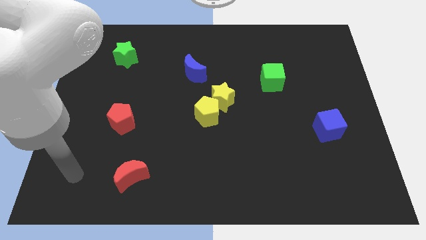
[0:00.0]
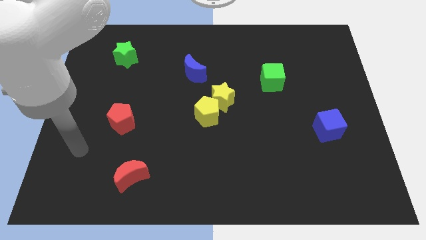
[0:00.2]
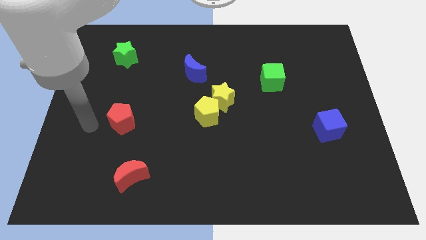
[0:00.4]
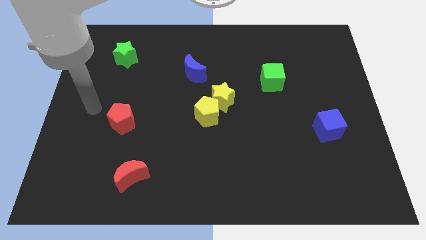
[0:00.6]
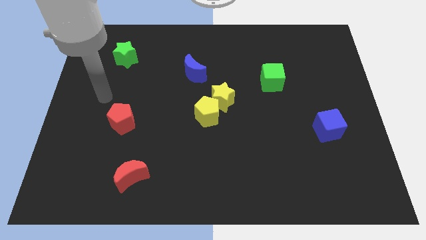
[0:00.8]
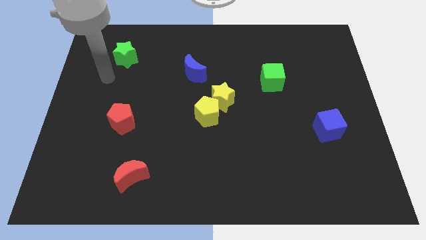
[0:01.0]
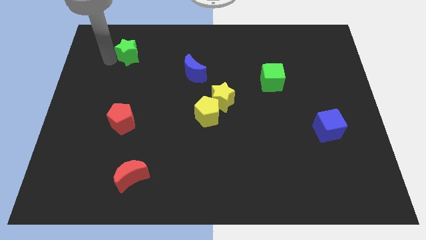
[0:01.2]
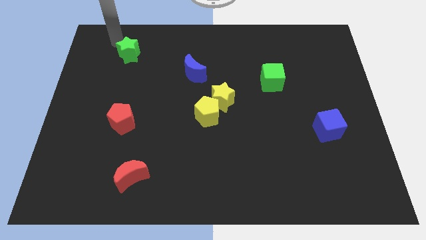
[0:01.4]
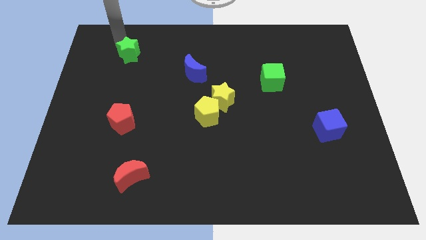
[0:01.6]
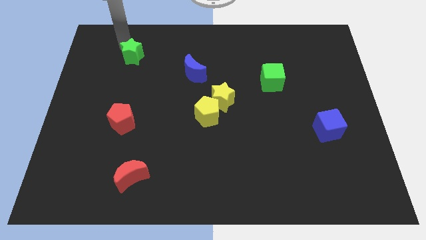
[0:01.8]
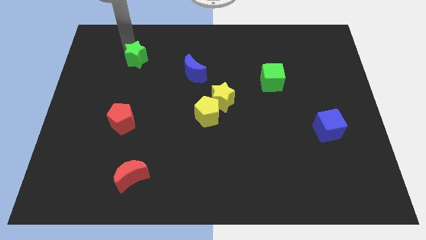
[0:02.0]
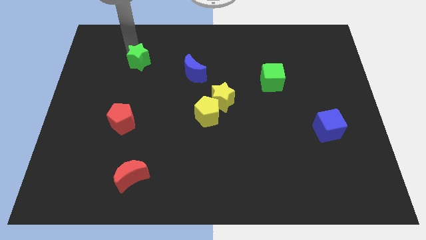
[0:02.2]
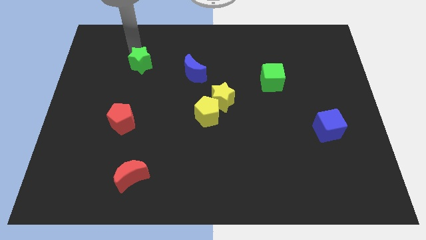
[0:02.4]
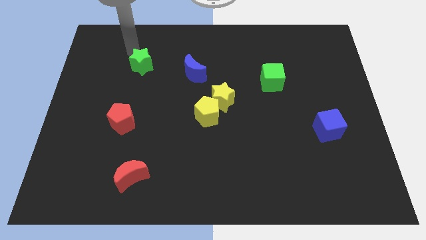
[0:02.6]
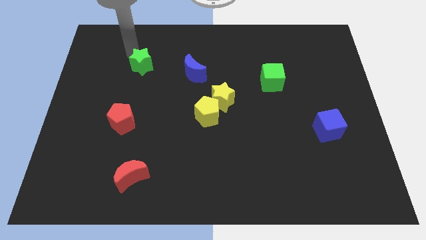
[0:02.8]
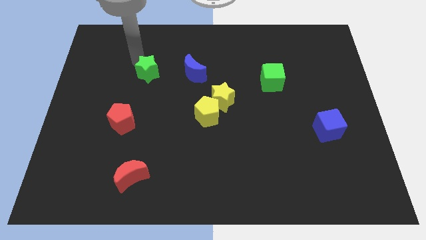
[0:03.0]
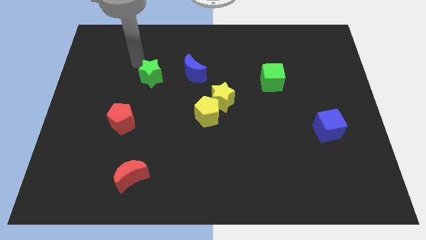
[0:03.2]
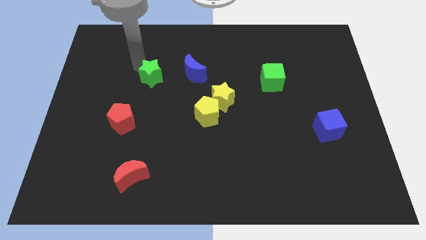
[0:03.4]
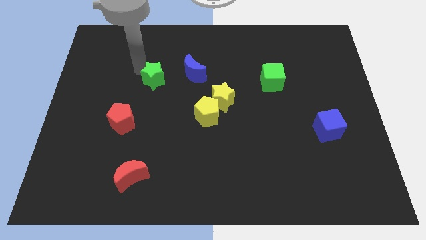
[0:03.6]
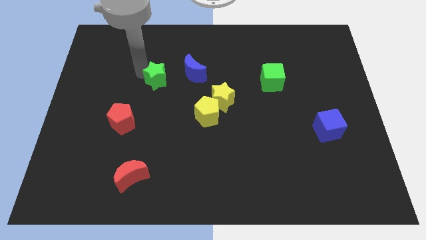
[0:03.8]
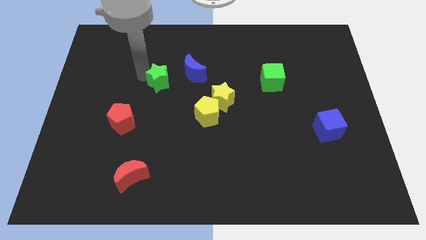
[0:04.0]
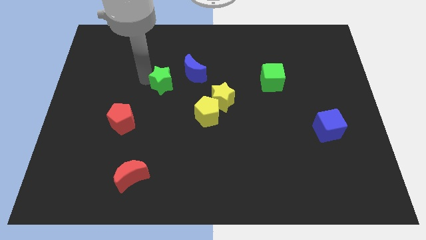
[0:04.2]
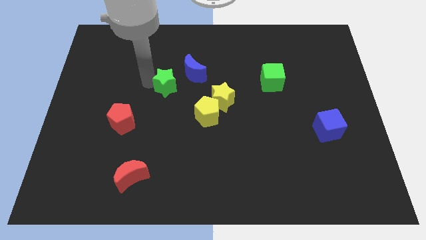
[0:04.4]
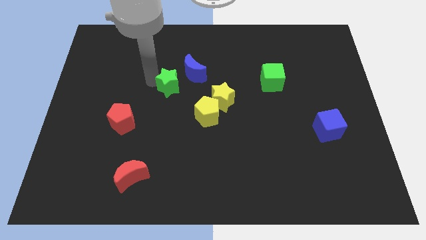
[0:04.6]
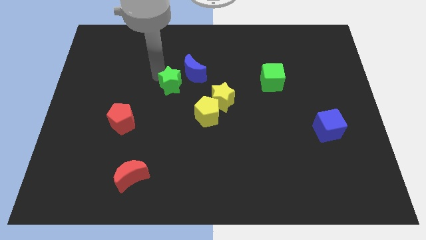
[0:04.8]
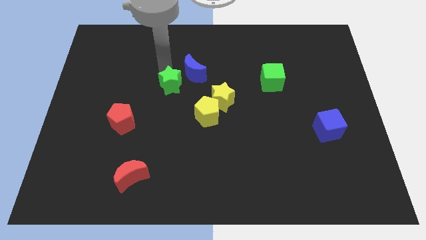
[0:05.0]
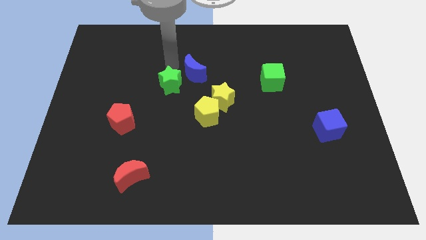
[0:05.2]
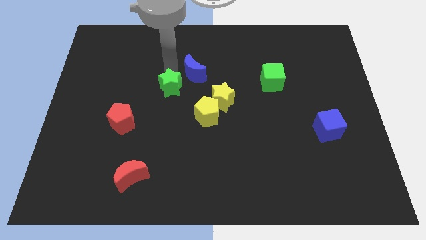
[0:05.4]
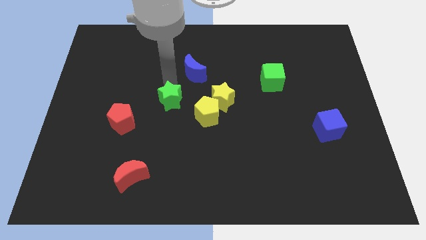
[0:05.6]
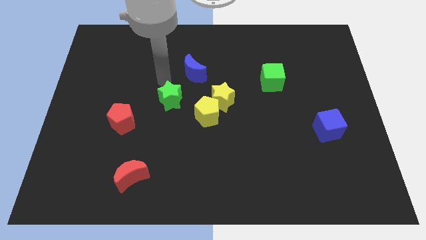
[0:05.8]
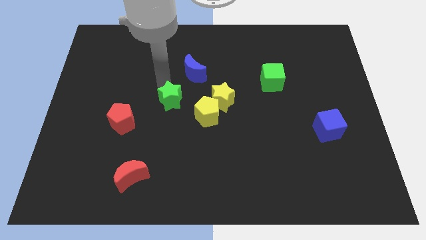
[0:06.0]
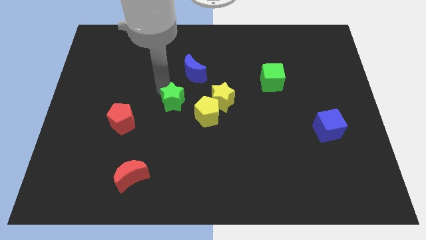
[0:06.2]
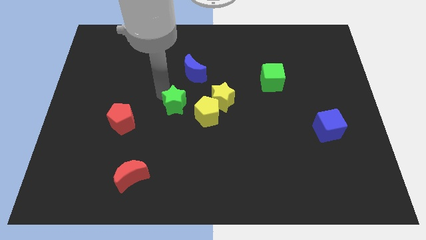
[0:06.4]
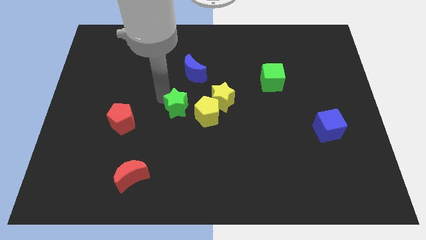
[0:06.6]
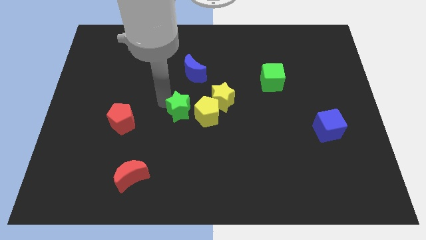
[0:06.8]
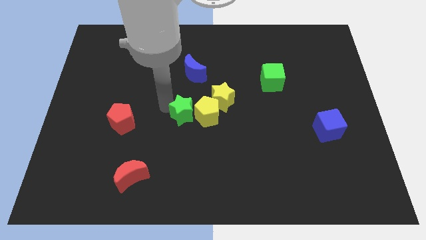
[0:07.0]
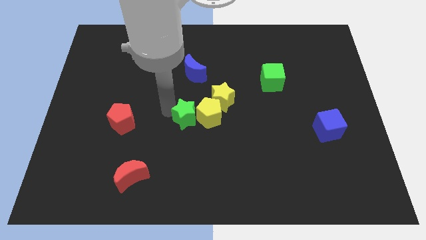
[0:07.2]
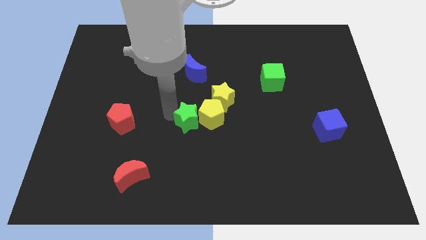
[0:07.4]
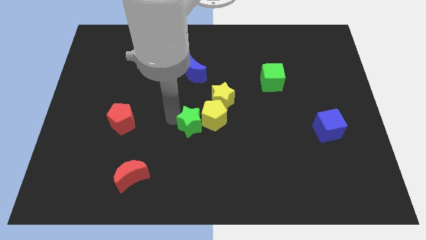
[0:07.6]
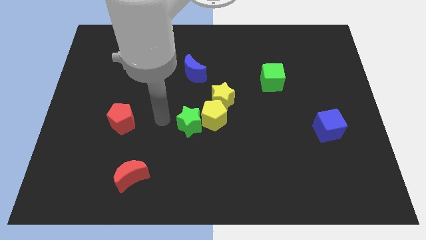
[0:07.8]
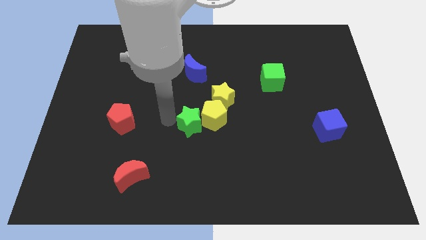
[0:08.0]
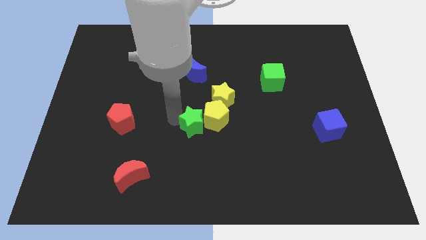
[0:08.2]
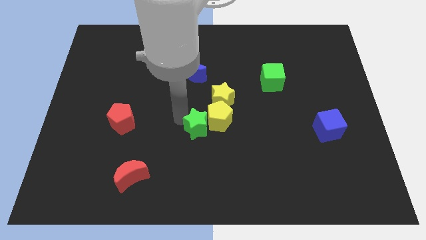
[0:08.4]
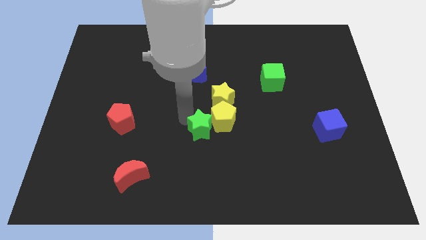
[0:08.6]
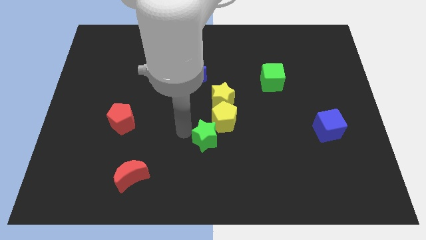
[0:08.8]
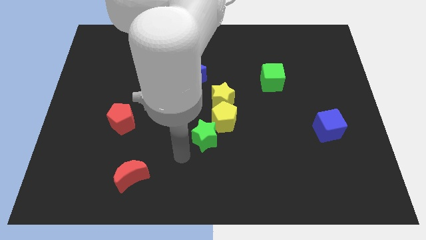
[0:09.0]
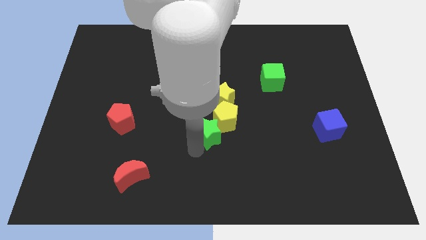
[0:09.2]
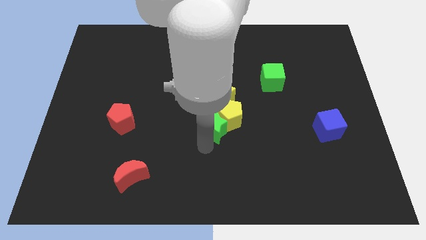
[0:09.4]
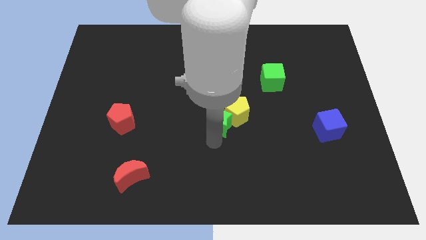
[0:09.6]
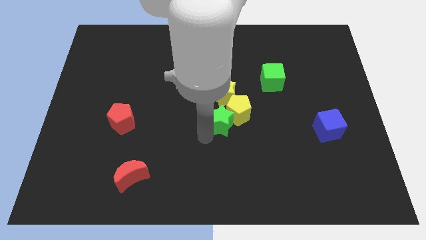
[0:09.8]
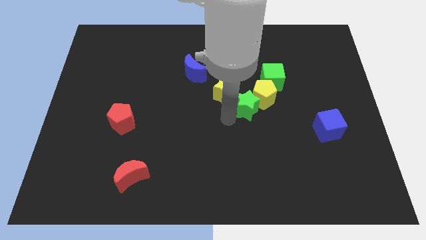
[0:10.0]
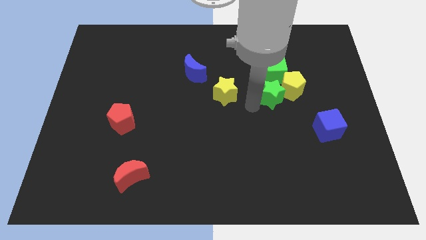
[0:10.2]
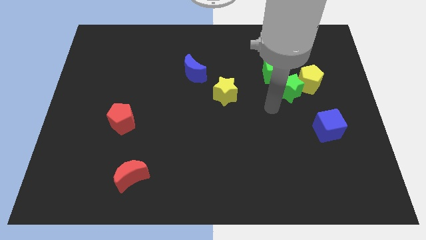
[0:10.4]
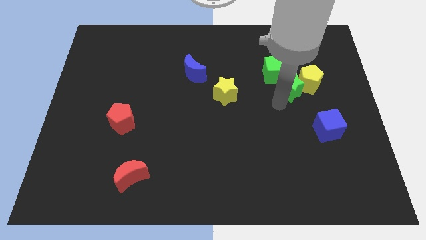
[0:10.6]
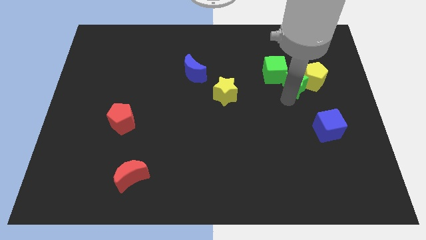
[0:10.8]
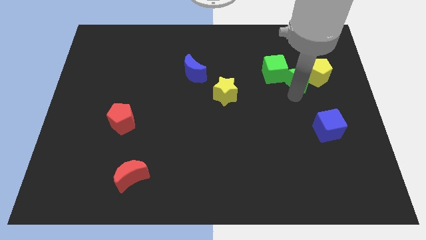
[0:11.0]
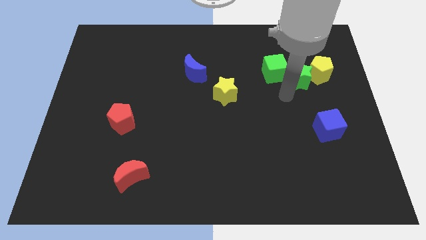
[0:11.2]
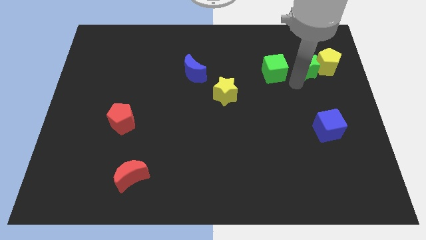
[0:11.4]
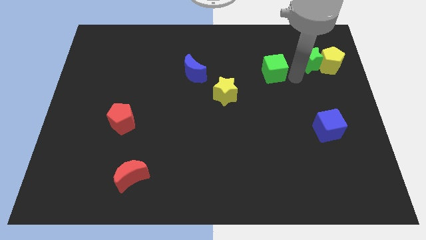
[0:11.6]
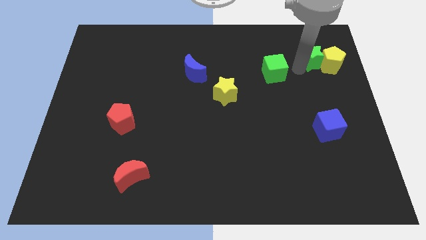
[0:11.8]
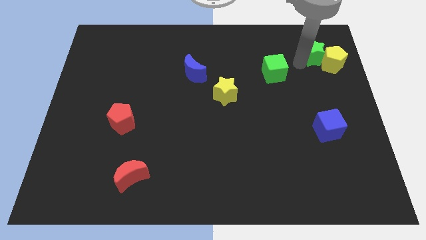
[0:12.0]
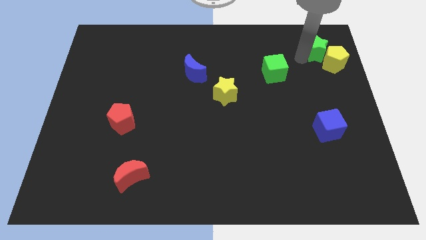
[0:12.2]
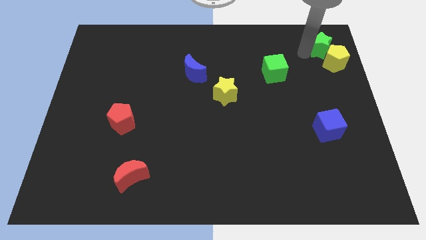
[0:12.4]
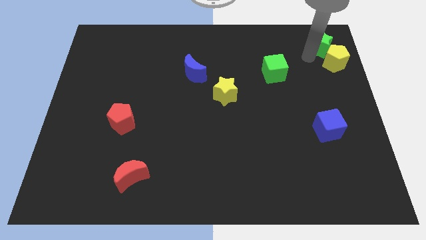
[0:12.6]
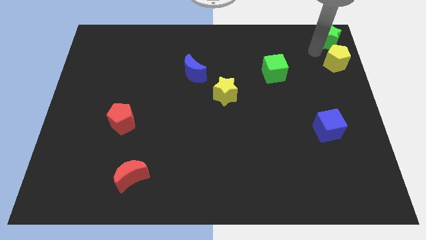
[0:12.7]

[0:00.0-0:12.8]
move the green star to the top right corner
